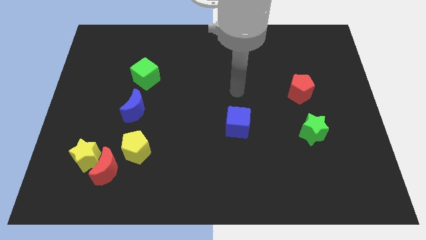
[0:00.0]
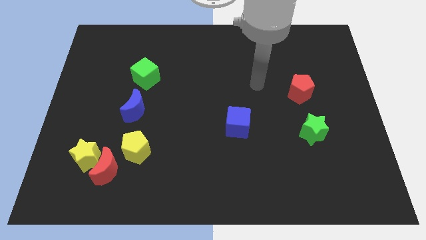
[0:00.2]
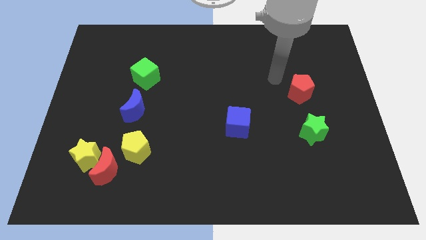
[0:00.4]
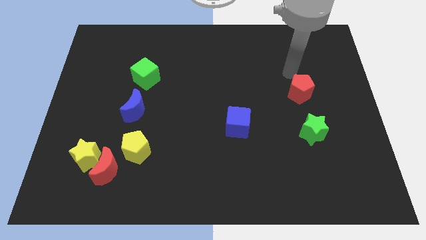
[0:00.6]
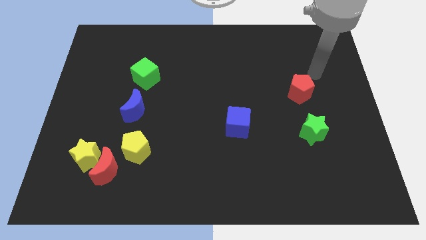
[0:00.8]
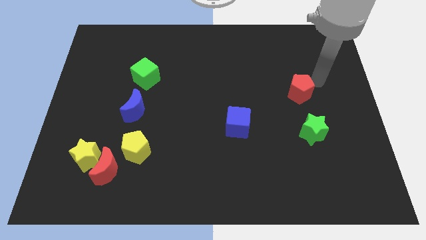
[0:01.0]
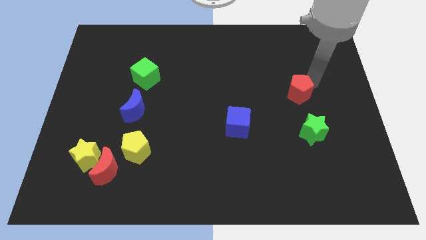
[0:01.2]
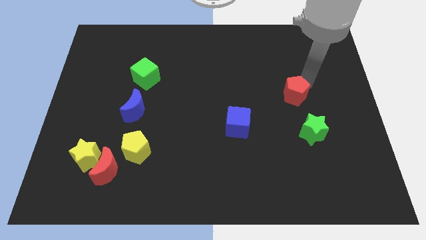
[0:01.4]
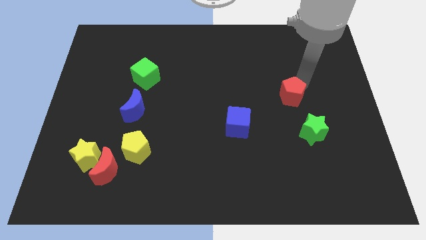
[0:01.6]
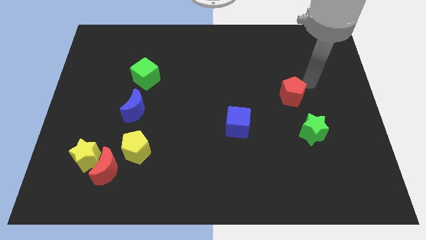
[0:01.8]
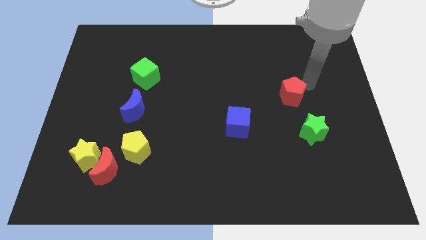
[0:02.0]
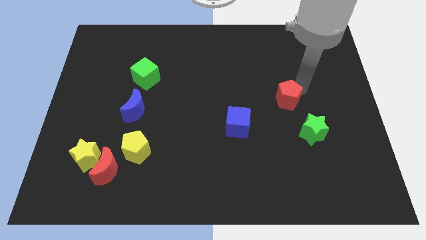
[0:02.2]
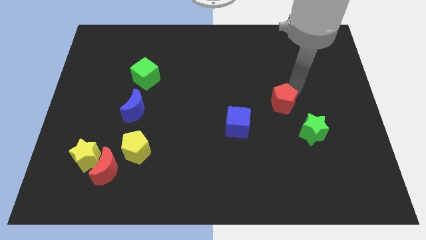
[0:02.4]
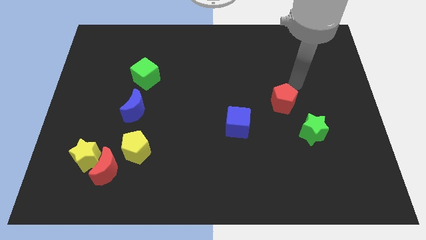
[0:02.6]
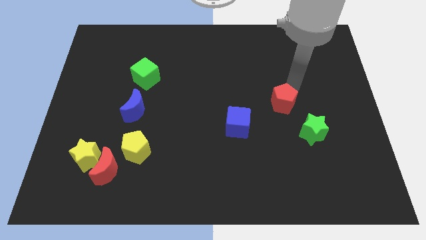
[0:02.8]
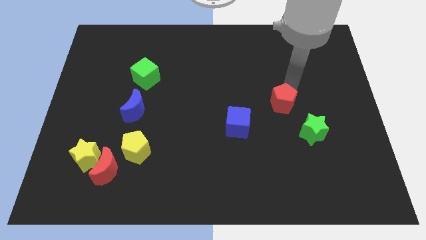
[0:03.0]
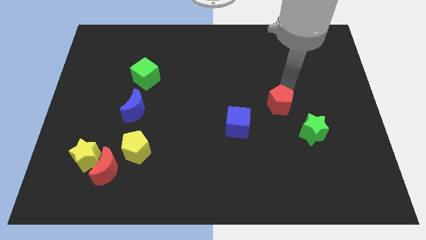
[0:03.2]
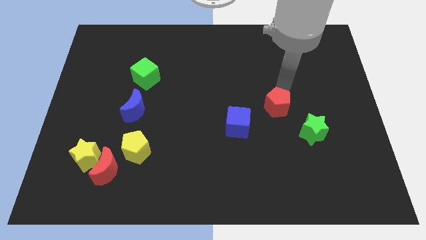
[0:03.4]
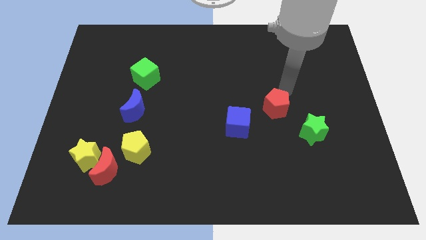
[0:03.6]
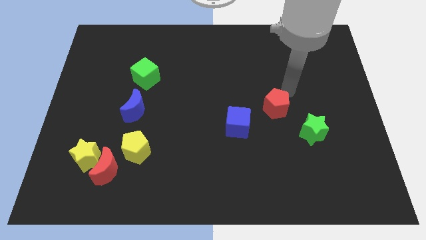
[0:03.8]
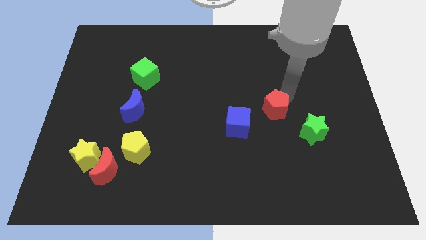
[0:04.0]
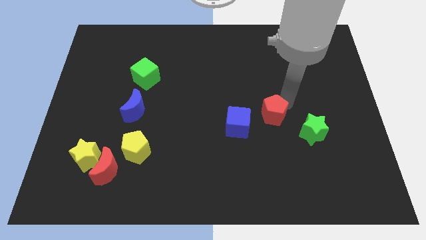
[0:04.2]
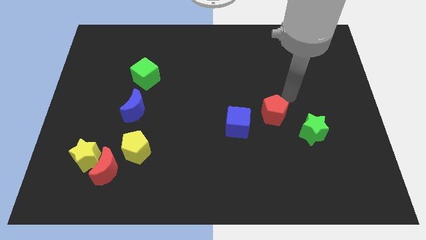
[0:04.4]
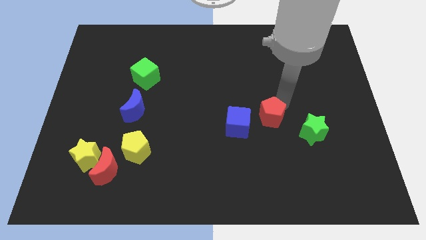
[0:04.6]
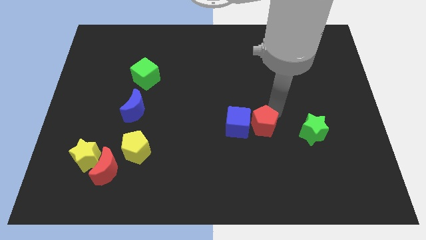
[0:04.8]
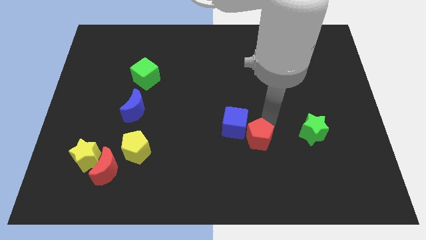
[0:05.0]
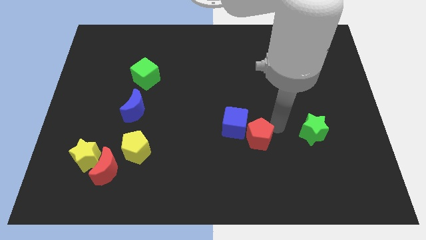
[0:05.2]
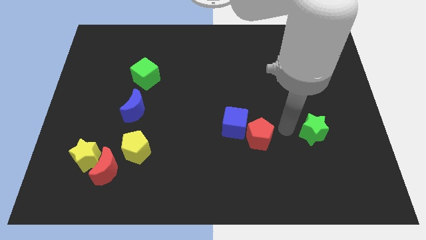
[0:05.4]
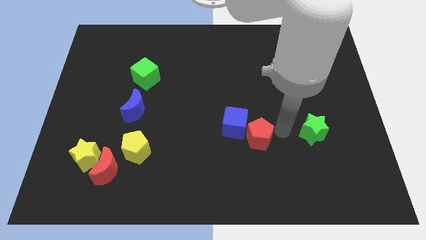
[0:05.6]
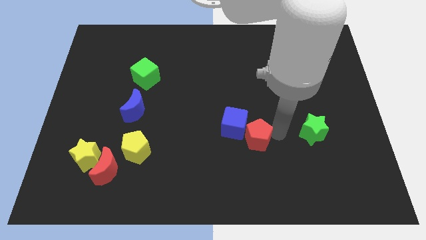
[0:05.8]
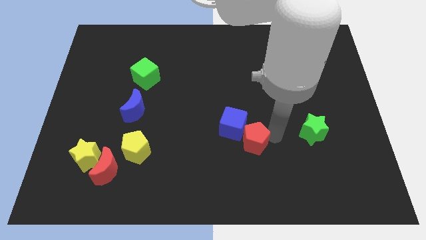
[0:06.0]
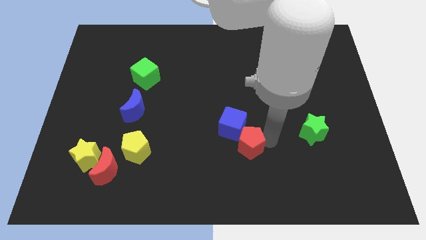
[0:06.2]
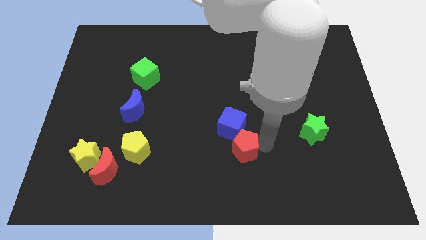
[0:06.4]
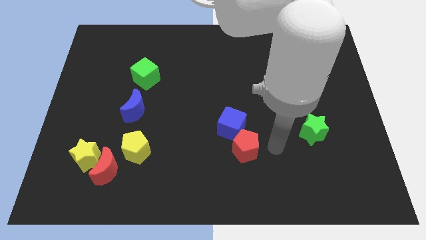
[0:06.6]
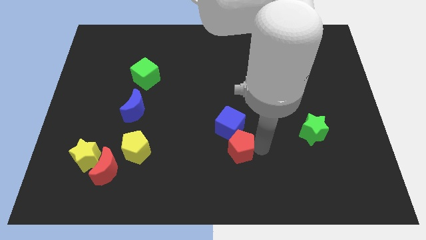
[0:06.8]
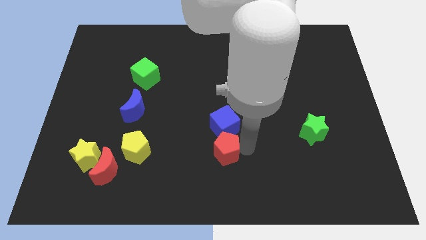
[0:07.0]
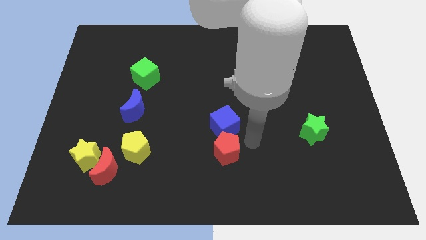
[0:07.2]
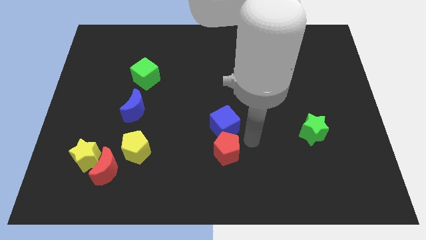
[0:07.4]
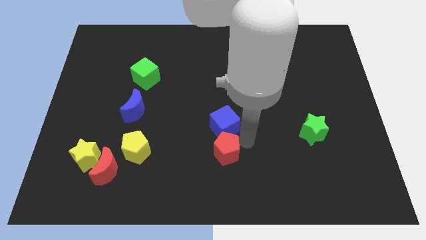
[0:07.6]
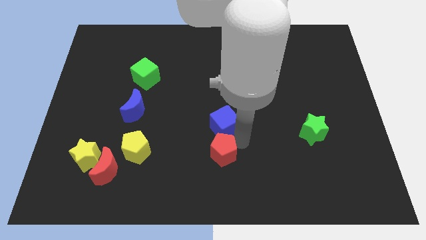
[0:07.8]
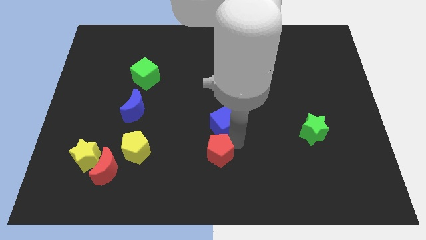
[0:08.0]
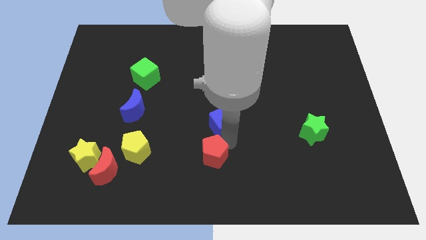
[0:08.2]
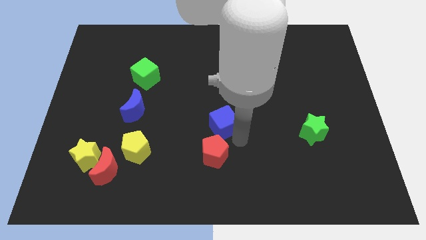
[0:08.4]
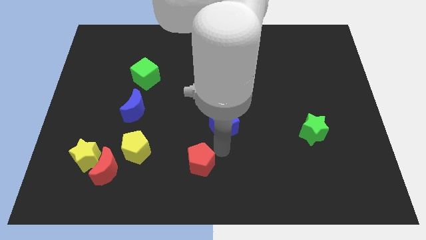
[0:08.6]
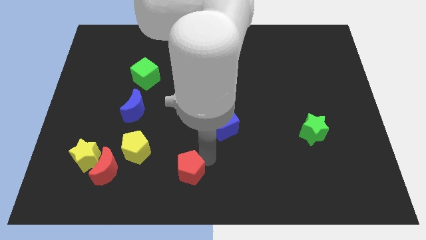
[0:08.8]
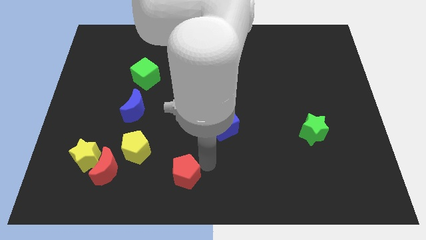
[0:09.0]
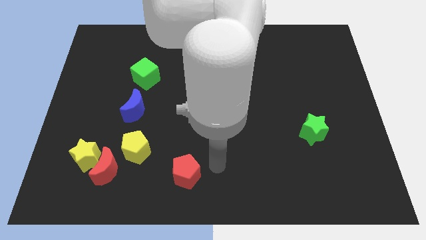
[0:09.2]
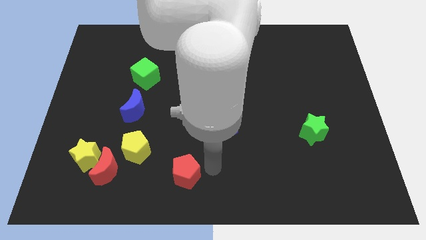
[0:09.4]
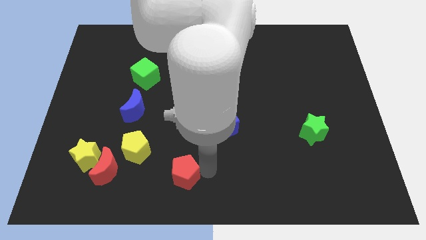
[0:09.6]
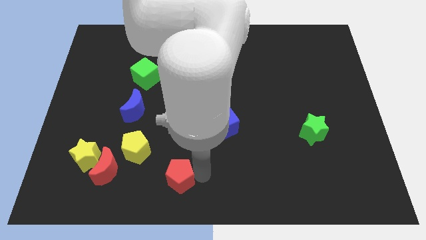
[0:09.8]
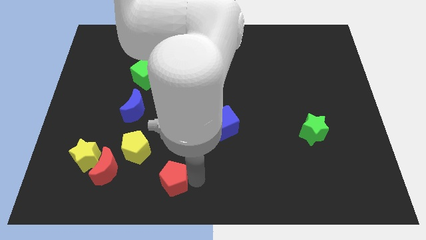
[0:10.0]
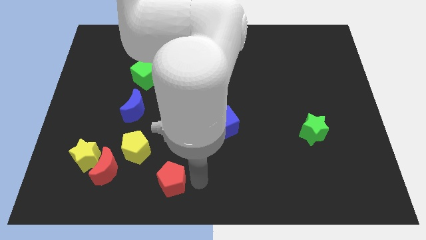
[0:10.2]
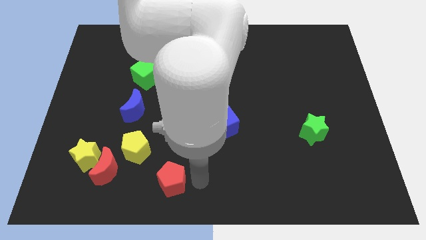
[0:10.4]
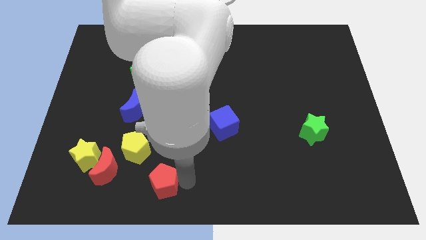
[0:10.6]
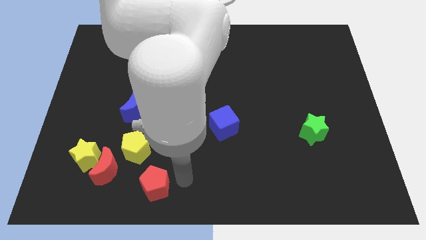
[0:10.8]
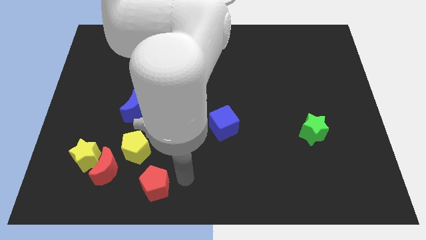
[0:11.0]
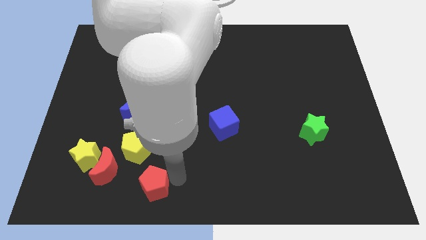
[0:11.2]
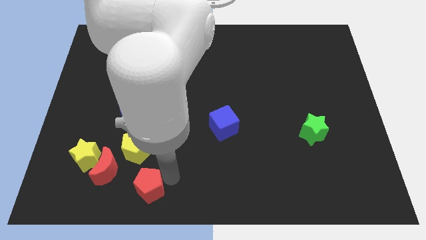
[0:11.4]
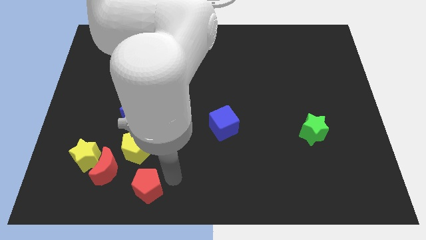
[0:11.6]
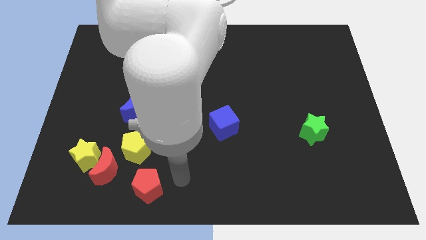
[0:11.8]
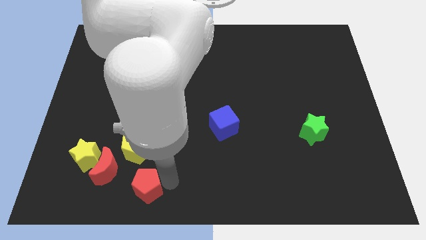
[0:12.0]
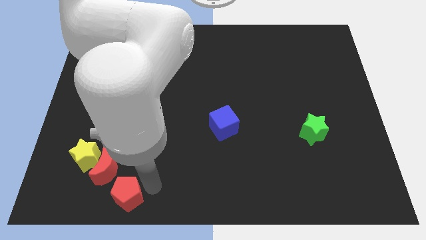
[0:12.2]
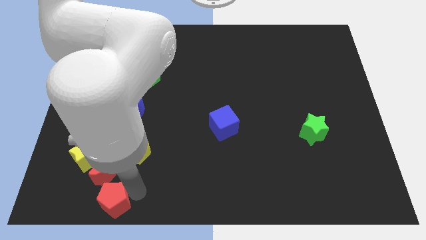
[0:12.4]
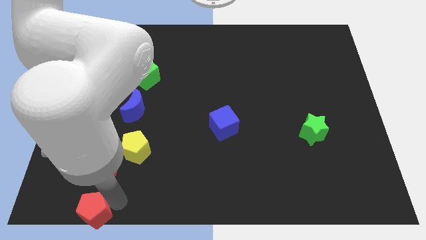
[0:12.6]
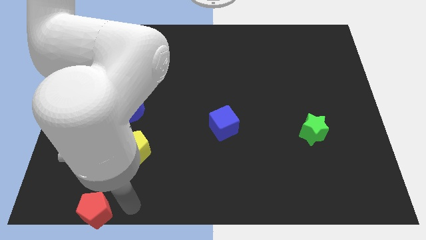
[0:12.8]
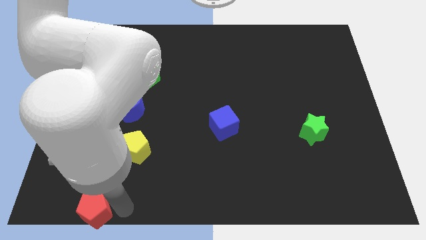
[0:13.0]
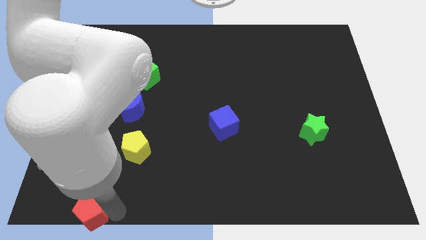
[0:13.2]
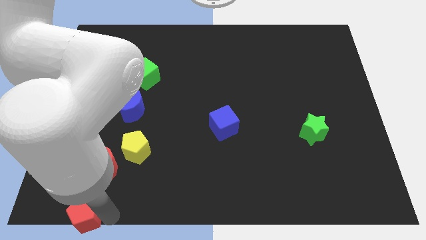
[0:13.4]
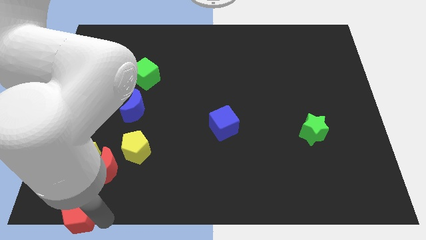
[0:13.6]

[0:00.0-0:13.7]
move the red pentagon to the lower left corner

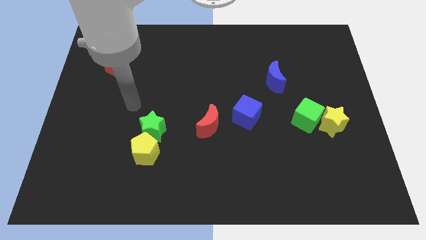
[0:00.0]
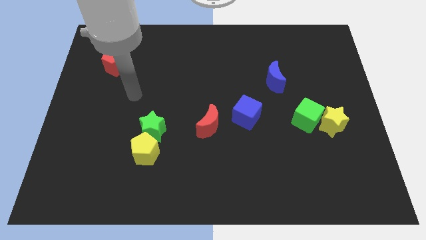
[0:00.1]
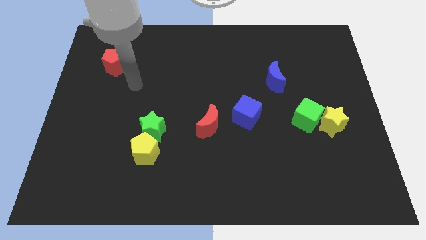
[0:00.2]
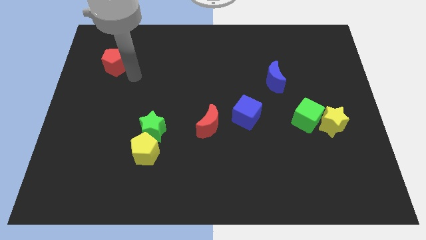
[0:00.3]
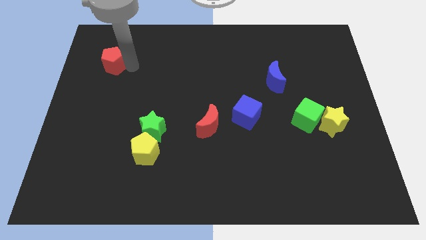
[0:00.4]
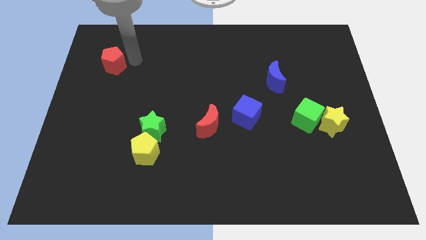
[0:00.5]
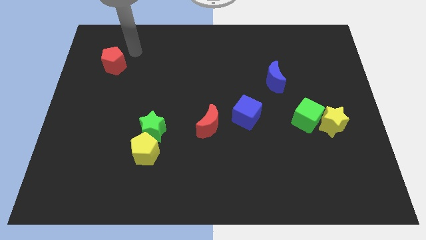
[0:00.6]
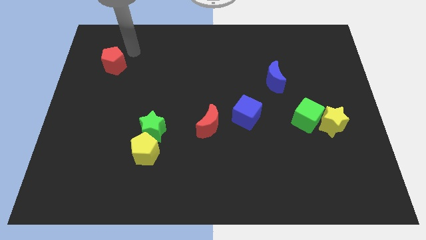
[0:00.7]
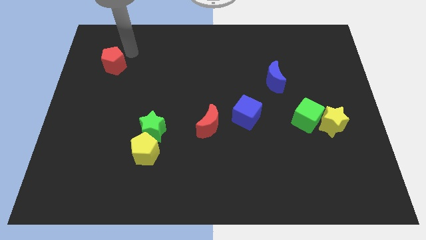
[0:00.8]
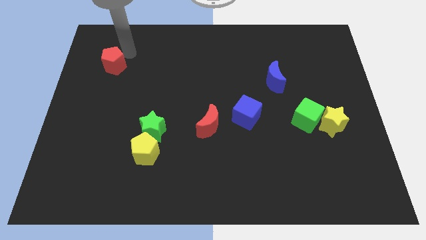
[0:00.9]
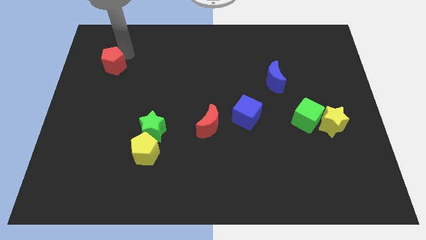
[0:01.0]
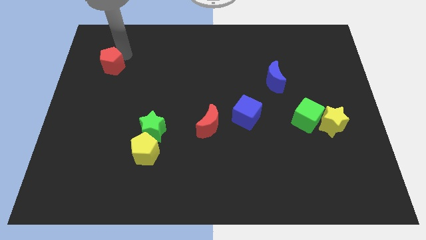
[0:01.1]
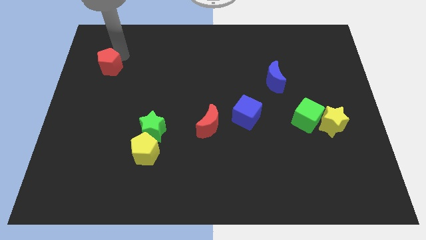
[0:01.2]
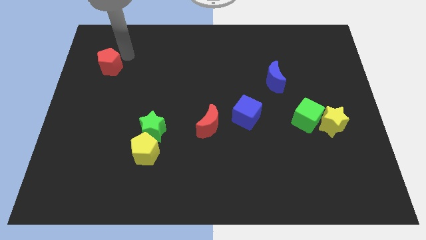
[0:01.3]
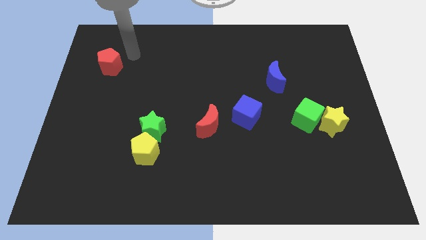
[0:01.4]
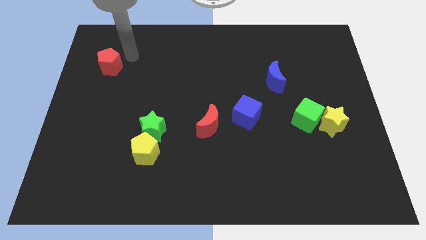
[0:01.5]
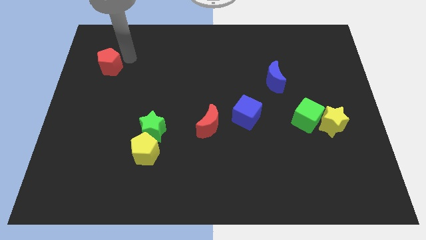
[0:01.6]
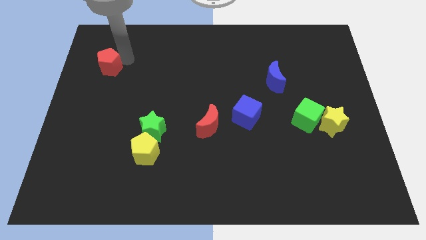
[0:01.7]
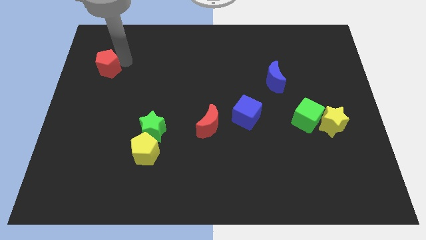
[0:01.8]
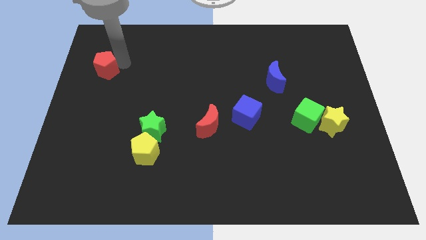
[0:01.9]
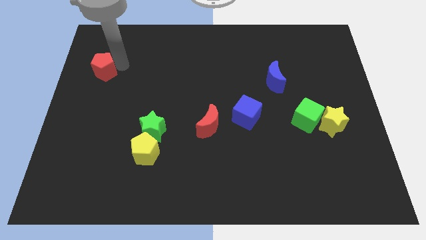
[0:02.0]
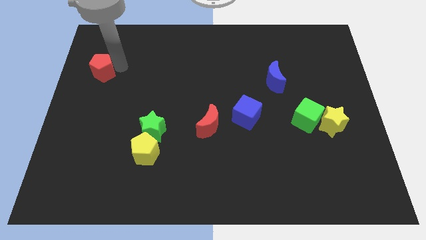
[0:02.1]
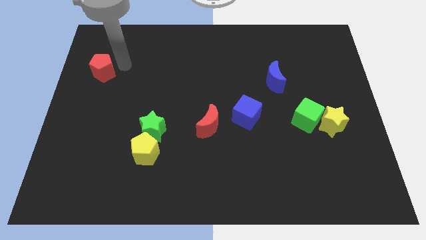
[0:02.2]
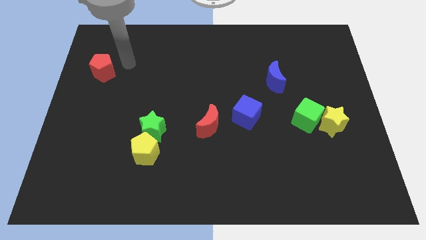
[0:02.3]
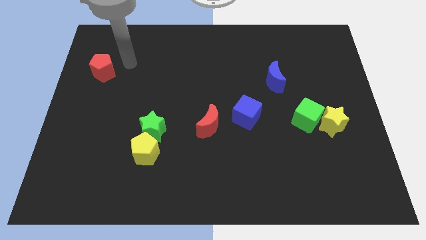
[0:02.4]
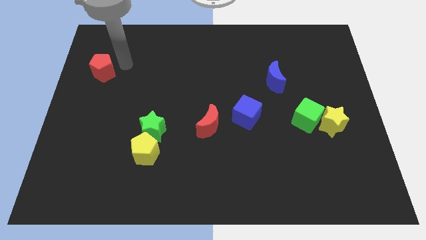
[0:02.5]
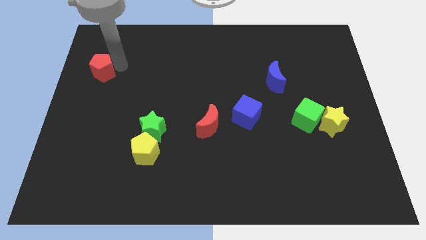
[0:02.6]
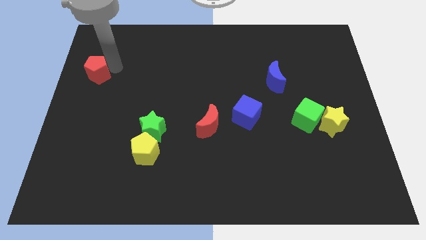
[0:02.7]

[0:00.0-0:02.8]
slide the red pentagon to the left side
